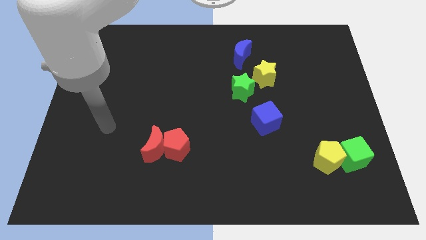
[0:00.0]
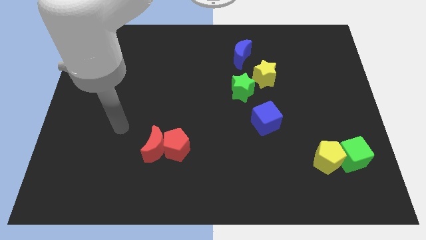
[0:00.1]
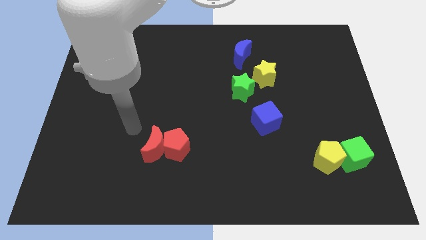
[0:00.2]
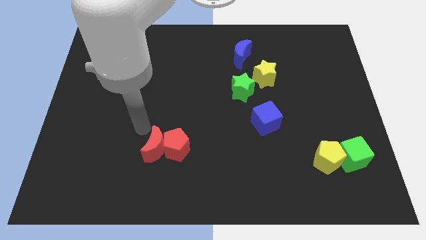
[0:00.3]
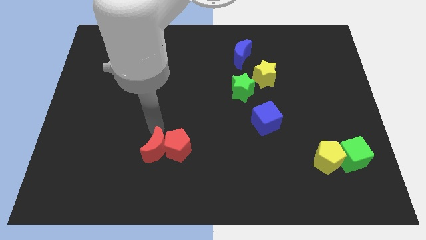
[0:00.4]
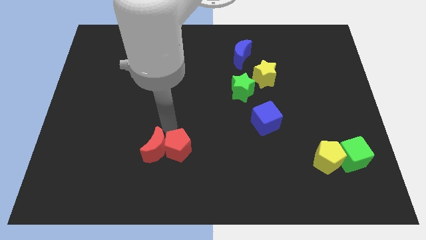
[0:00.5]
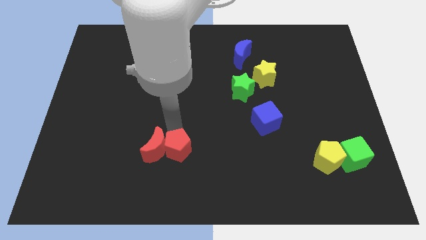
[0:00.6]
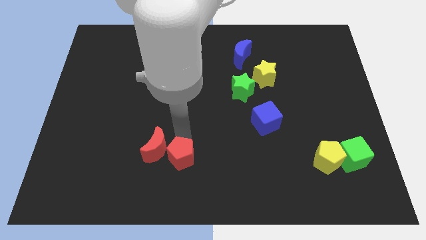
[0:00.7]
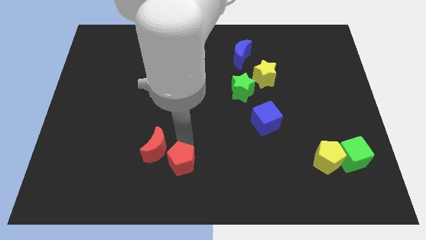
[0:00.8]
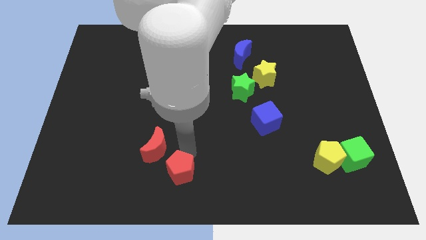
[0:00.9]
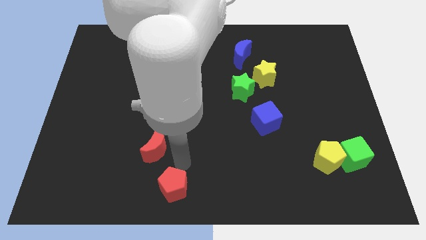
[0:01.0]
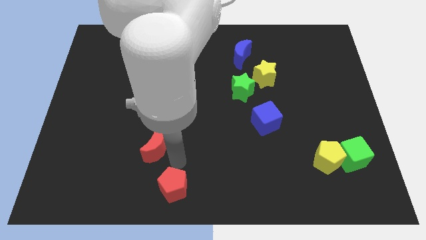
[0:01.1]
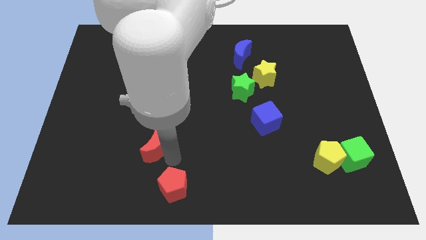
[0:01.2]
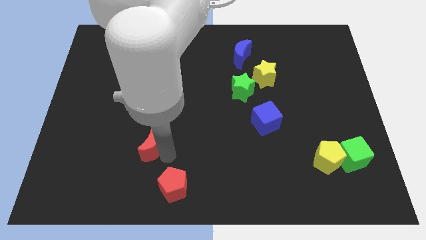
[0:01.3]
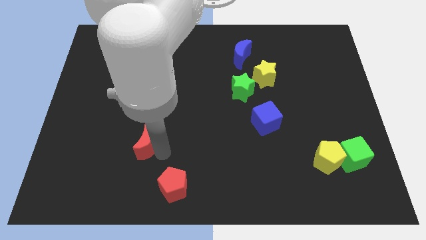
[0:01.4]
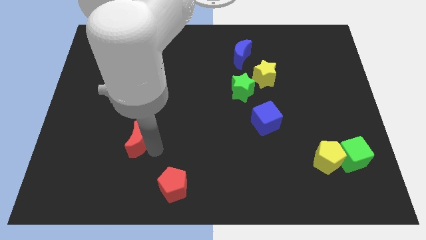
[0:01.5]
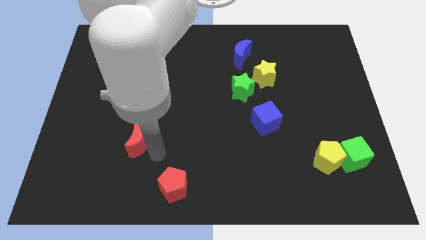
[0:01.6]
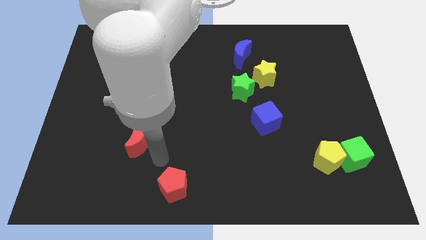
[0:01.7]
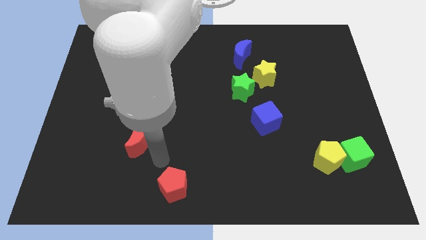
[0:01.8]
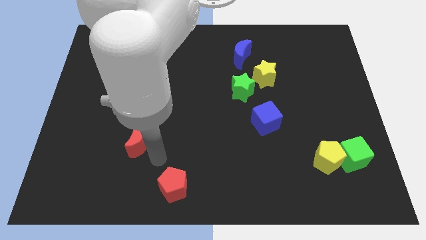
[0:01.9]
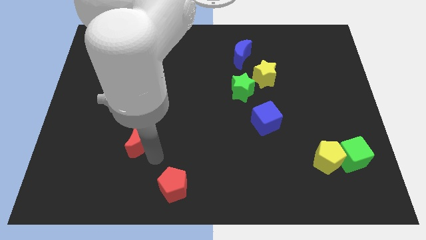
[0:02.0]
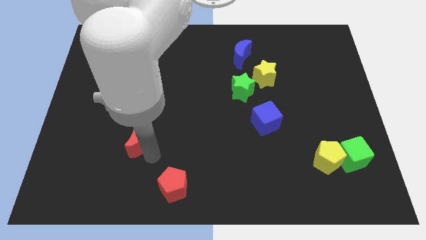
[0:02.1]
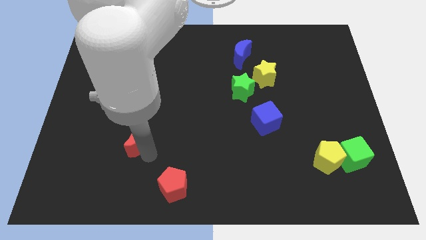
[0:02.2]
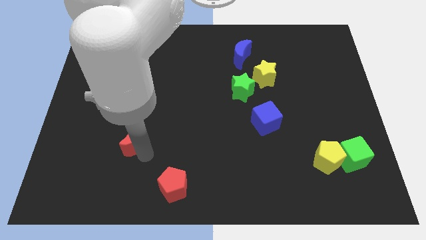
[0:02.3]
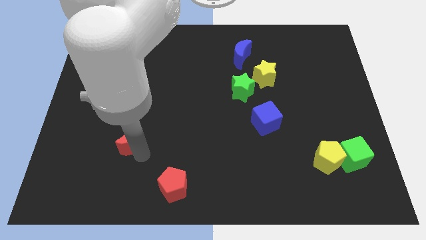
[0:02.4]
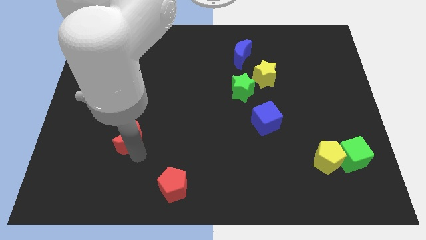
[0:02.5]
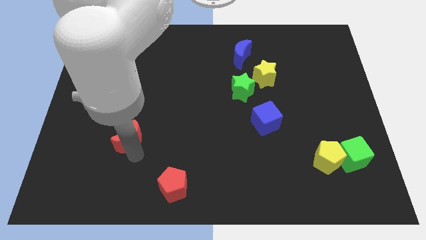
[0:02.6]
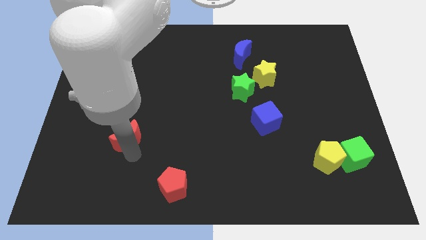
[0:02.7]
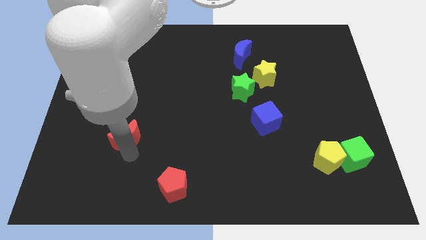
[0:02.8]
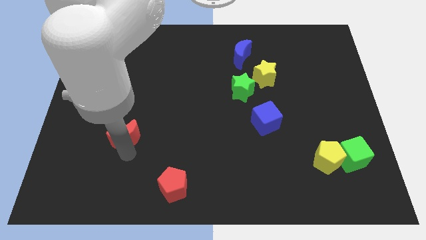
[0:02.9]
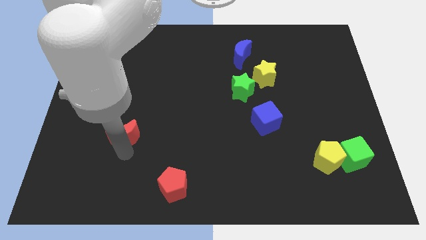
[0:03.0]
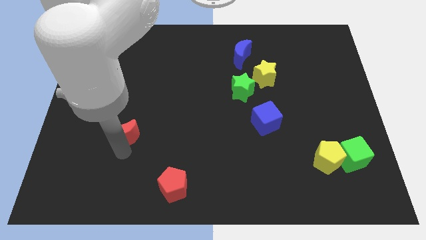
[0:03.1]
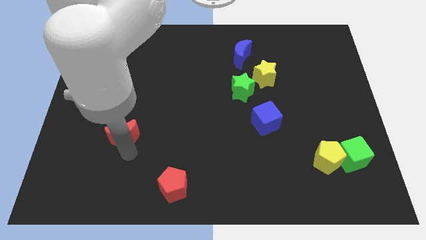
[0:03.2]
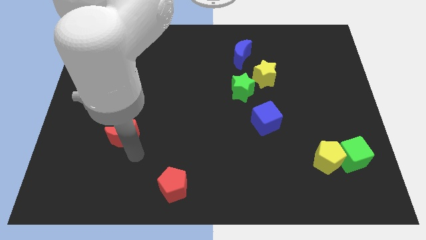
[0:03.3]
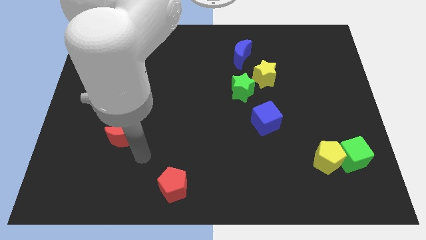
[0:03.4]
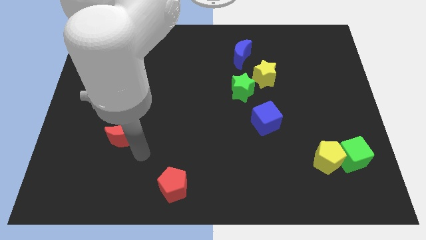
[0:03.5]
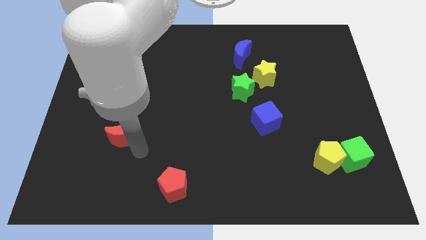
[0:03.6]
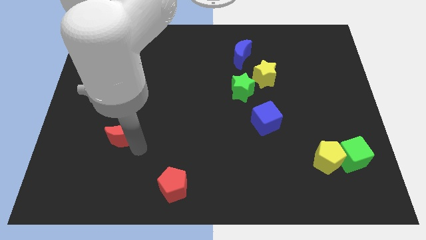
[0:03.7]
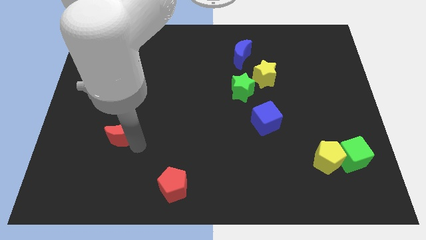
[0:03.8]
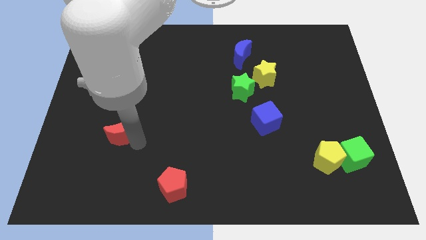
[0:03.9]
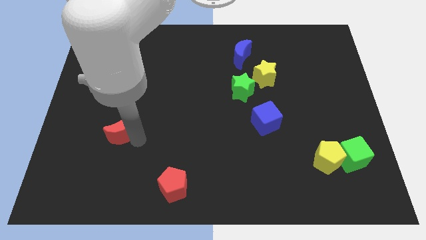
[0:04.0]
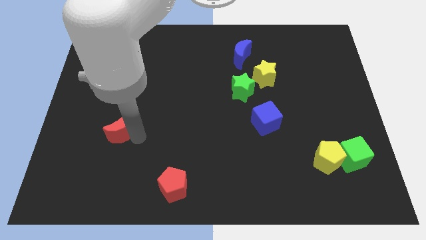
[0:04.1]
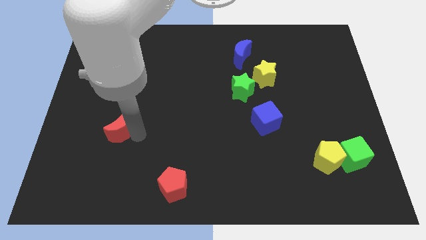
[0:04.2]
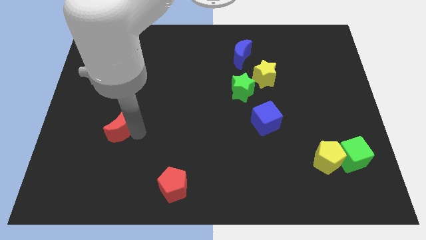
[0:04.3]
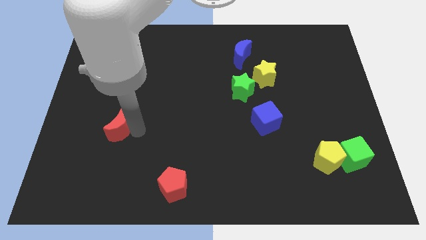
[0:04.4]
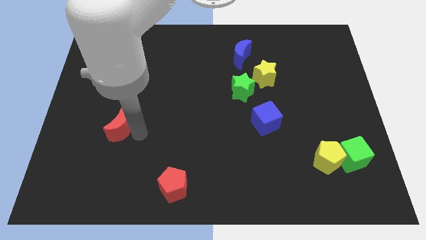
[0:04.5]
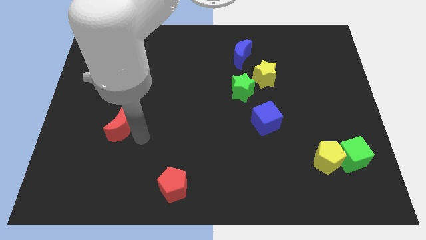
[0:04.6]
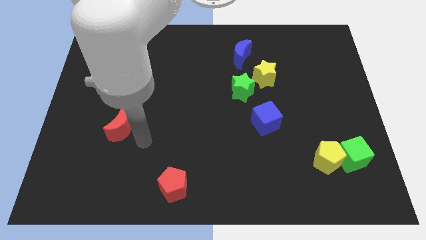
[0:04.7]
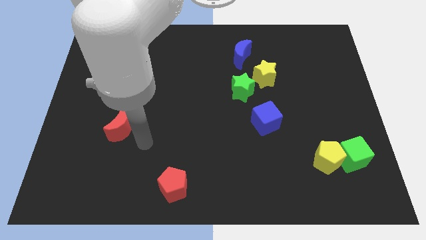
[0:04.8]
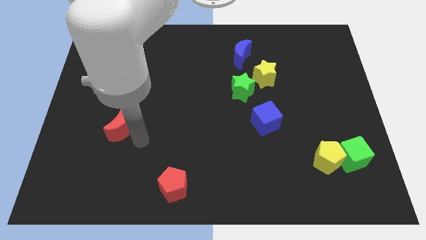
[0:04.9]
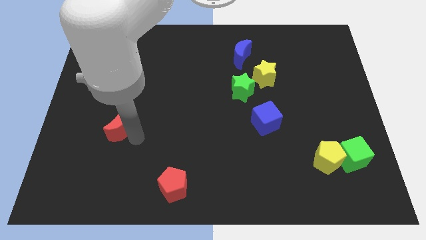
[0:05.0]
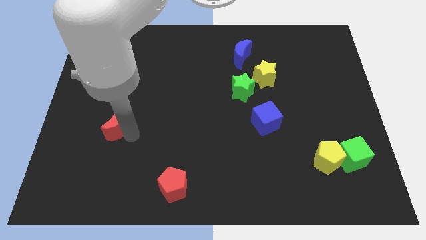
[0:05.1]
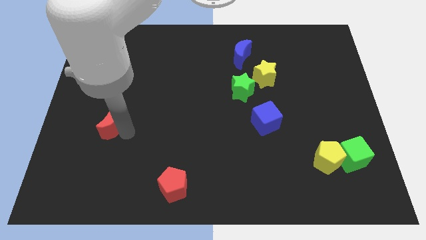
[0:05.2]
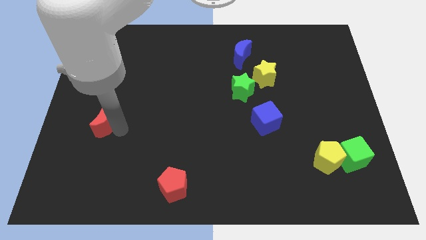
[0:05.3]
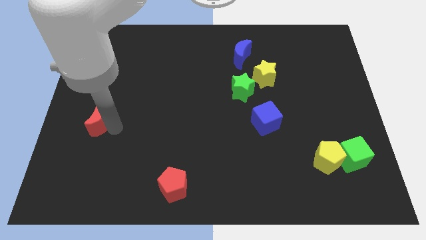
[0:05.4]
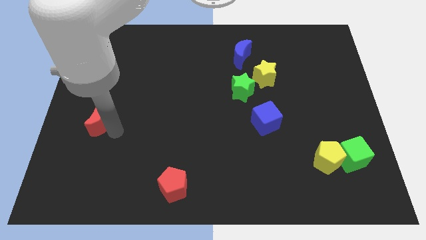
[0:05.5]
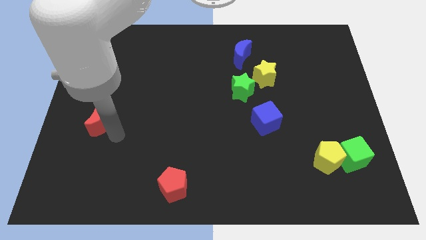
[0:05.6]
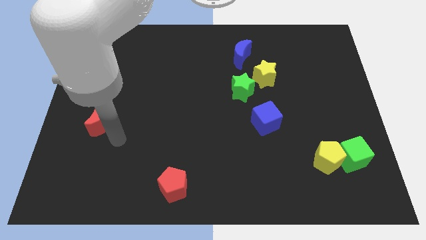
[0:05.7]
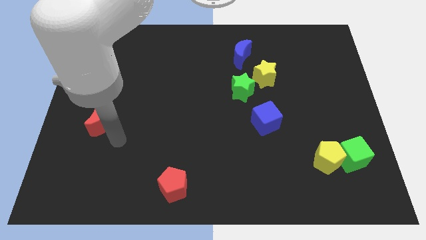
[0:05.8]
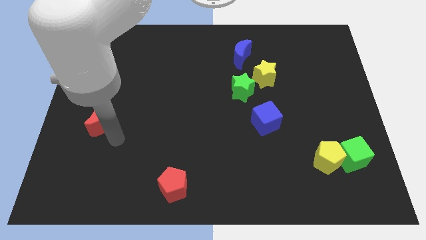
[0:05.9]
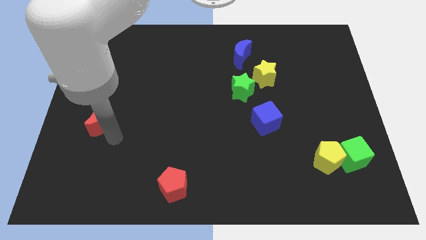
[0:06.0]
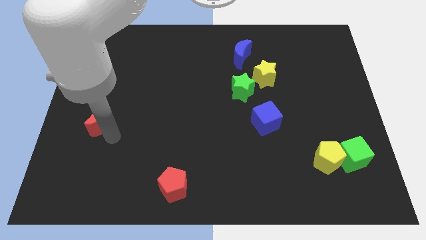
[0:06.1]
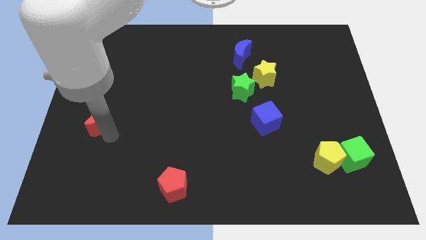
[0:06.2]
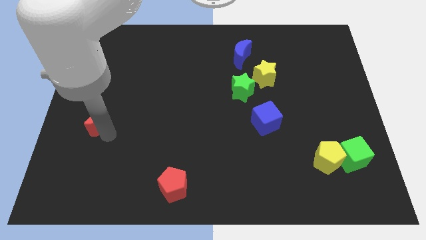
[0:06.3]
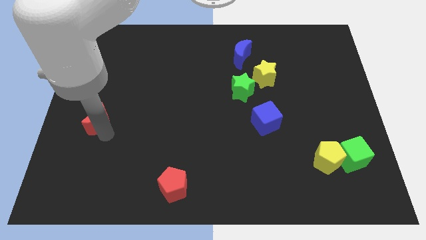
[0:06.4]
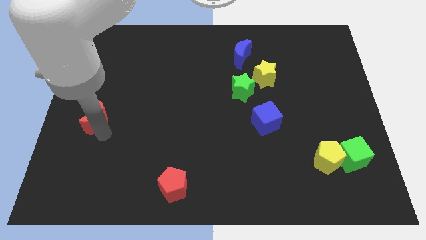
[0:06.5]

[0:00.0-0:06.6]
move the red moon to the left side
